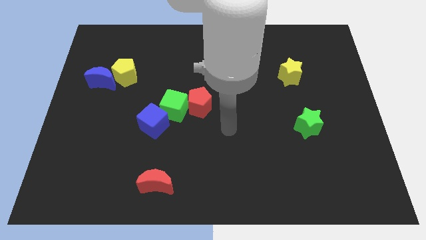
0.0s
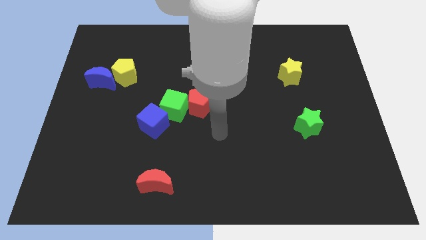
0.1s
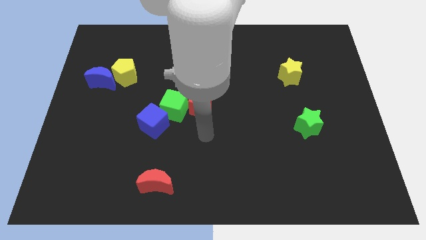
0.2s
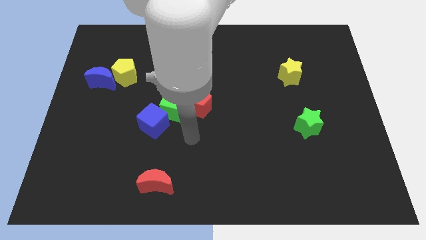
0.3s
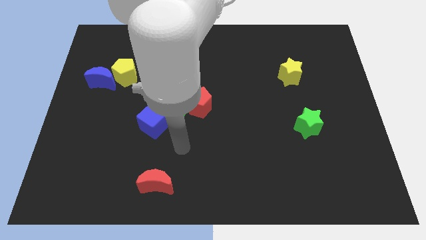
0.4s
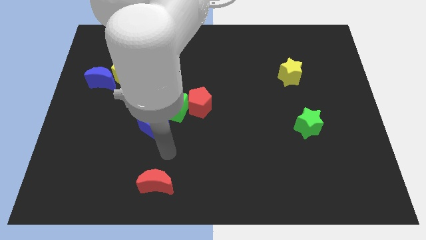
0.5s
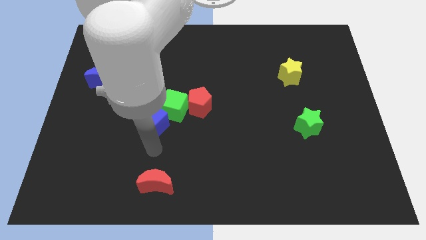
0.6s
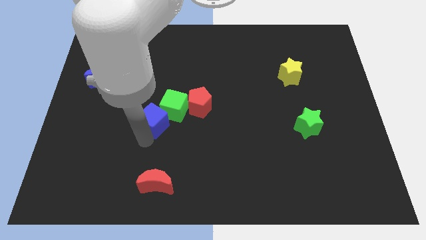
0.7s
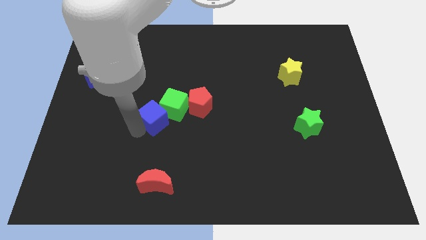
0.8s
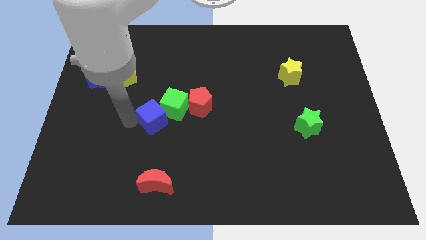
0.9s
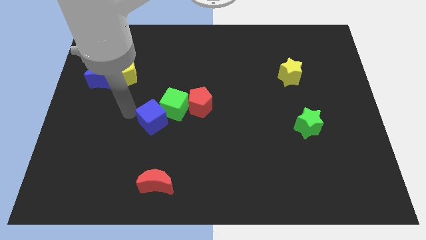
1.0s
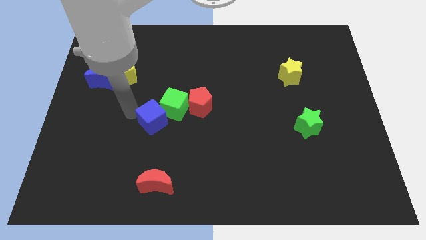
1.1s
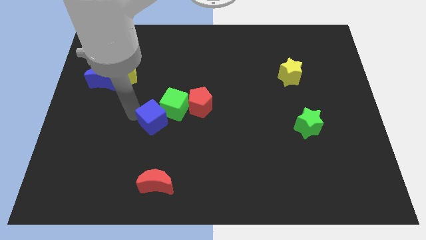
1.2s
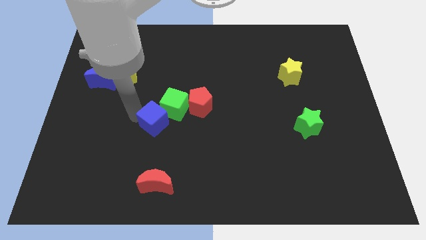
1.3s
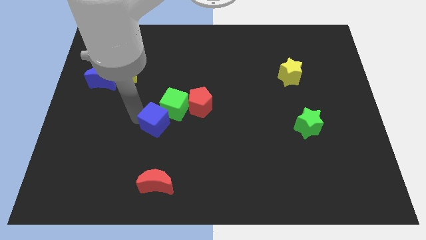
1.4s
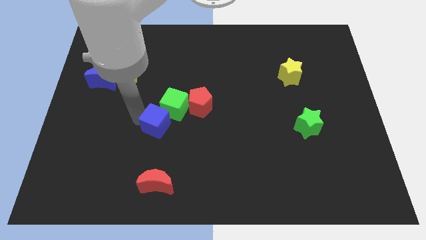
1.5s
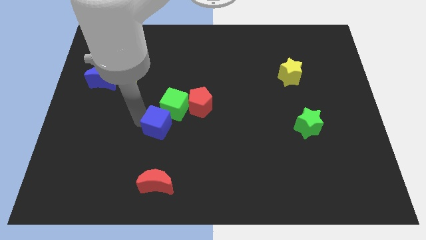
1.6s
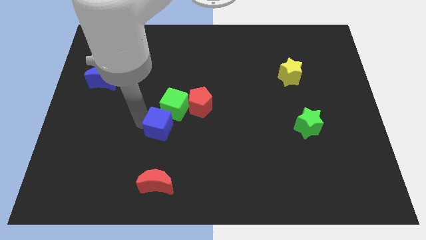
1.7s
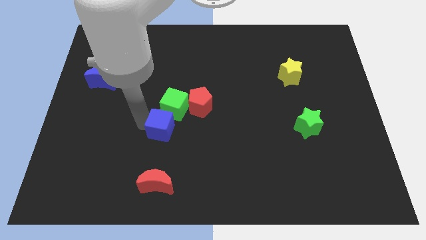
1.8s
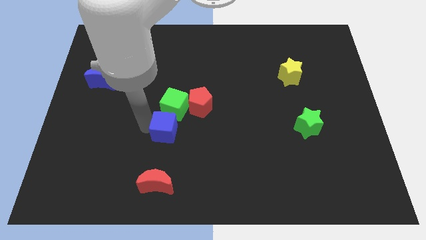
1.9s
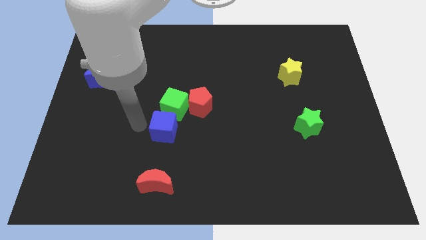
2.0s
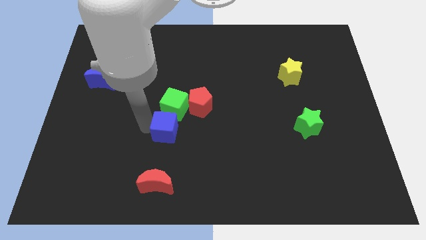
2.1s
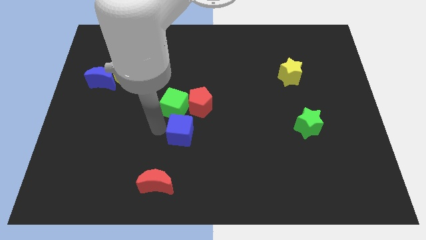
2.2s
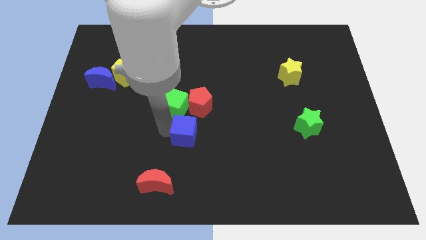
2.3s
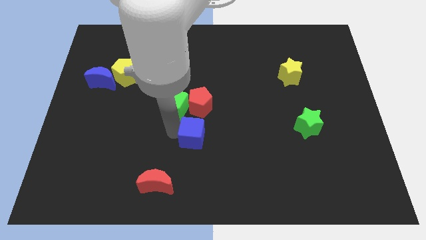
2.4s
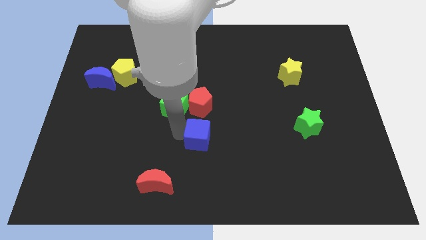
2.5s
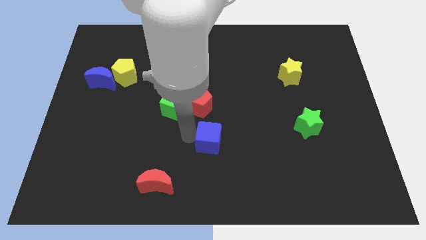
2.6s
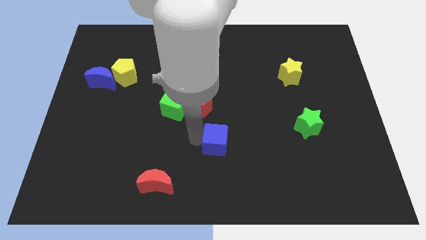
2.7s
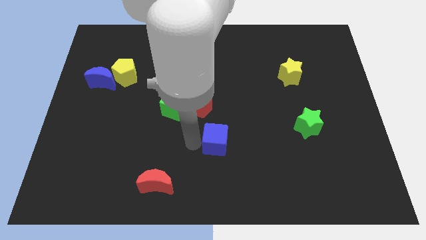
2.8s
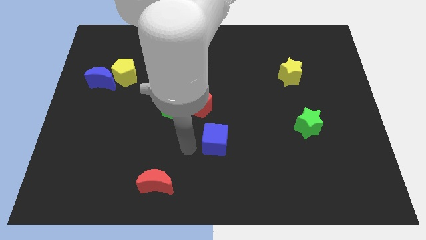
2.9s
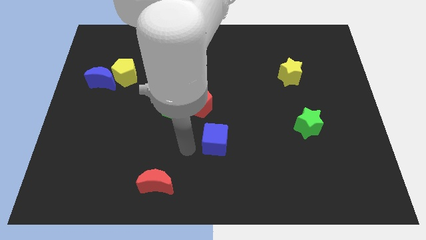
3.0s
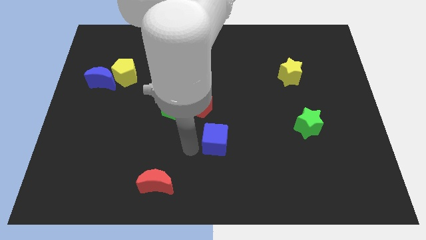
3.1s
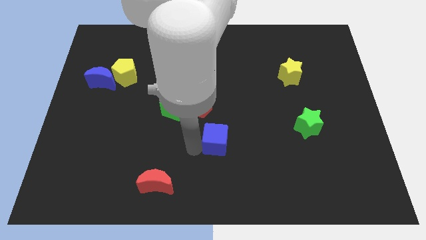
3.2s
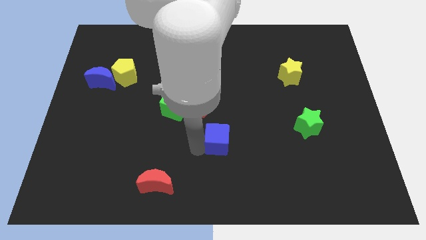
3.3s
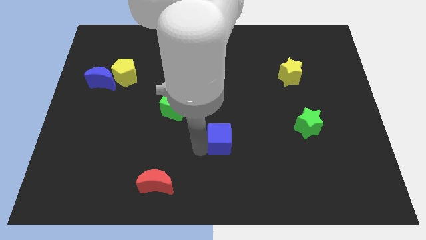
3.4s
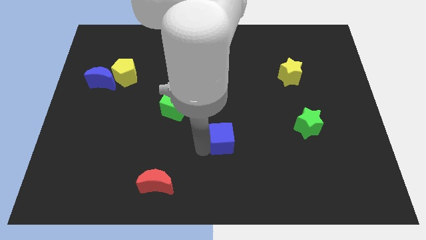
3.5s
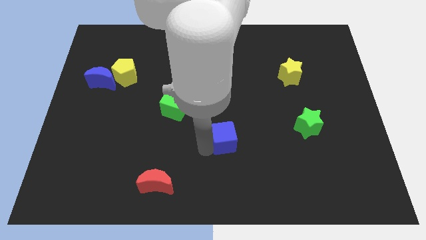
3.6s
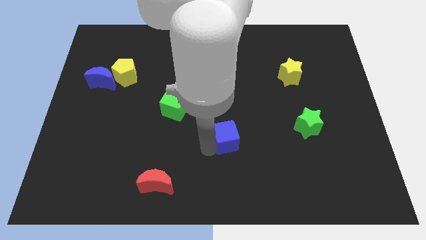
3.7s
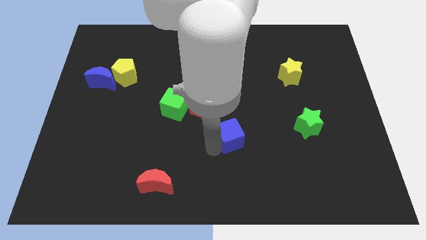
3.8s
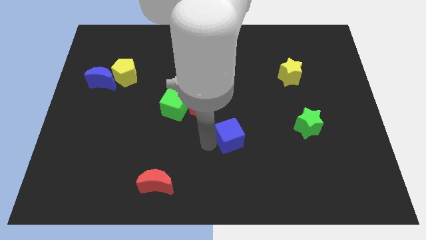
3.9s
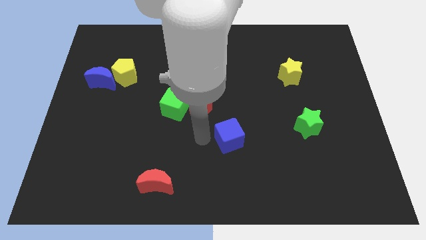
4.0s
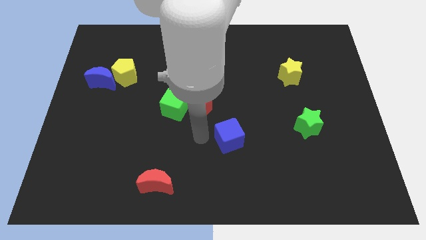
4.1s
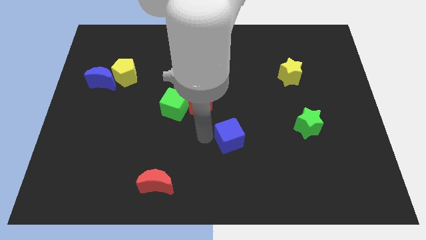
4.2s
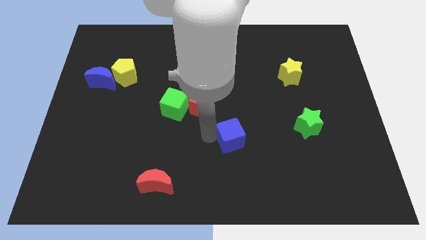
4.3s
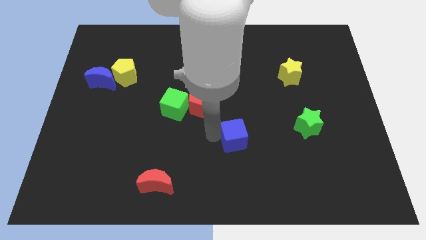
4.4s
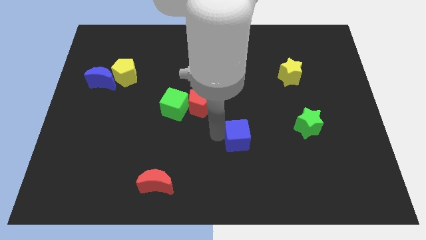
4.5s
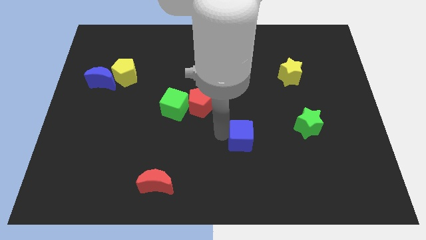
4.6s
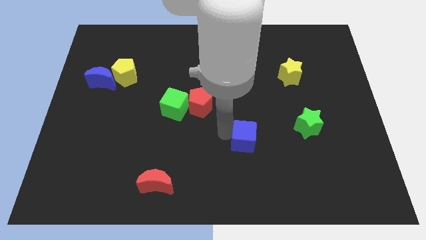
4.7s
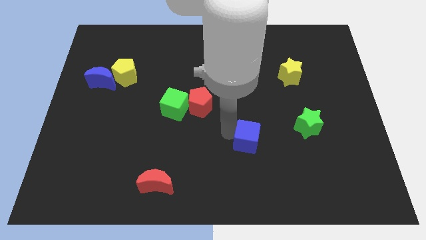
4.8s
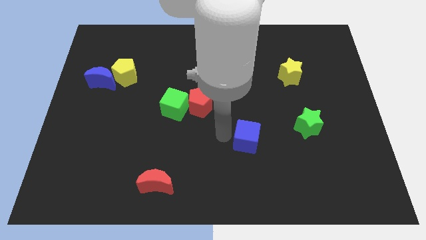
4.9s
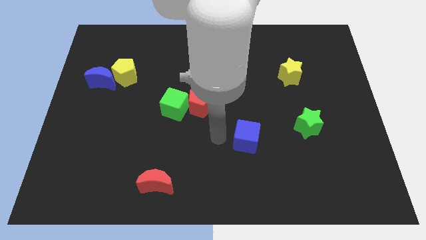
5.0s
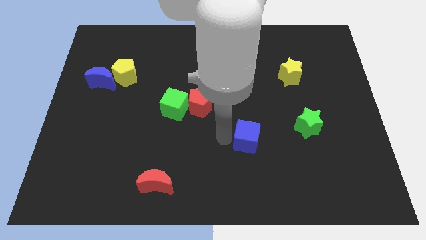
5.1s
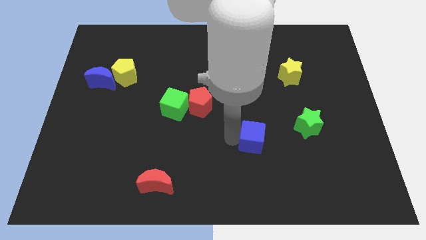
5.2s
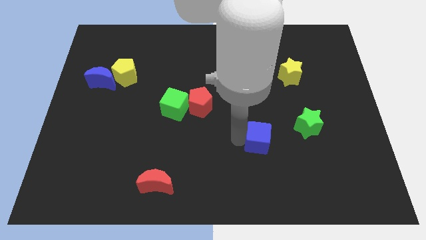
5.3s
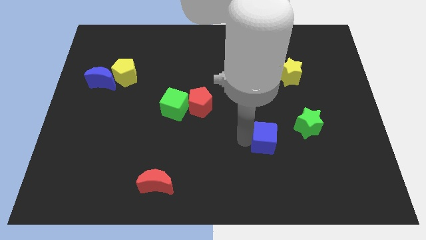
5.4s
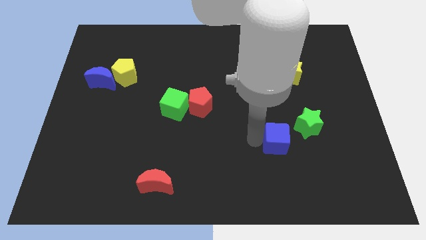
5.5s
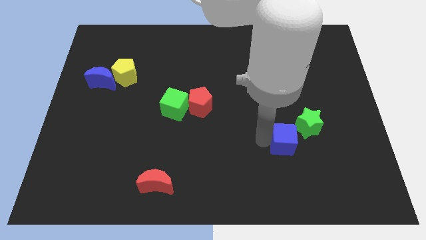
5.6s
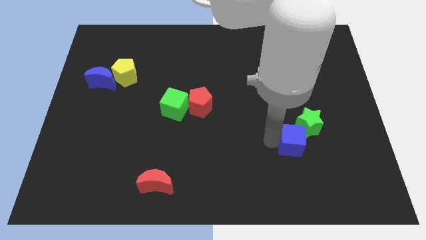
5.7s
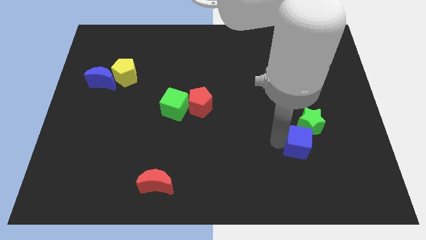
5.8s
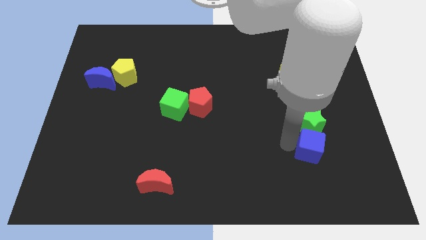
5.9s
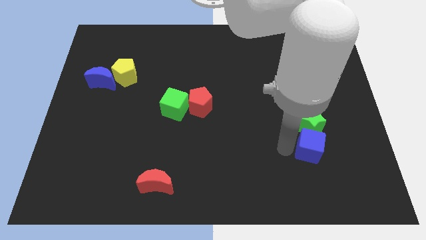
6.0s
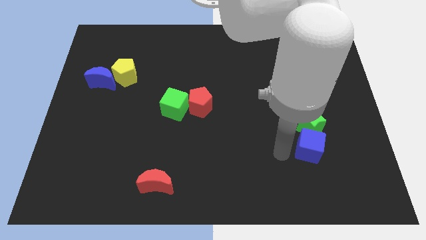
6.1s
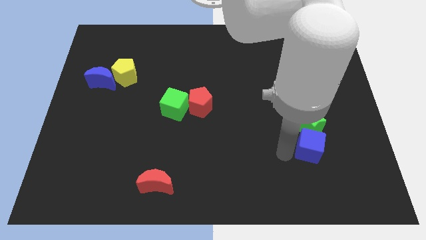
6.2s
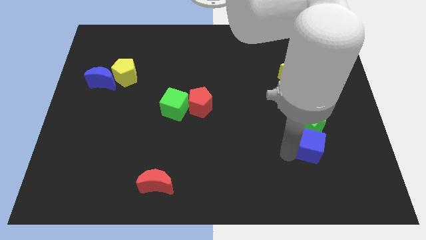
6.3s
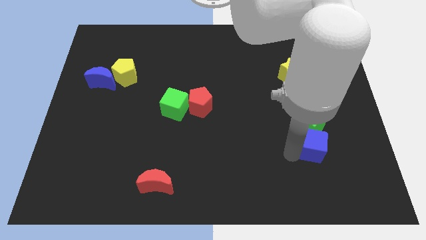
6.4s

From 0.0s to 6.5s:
put the blue cube diagonally down and to the right of the green star

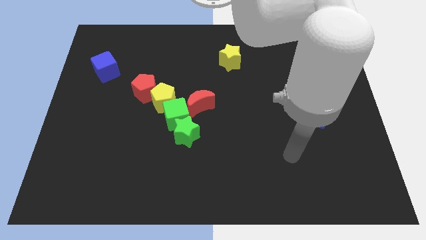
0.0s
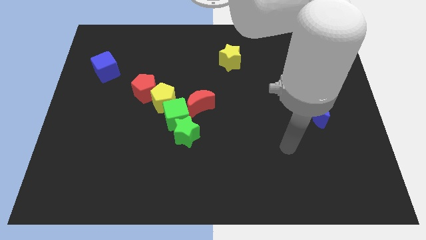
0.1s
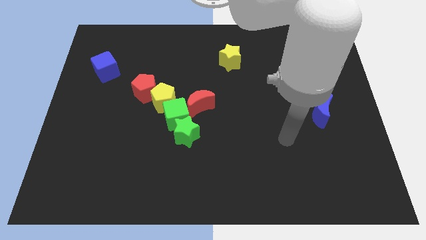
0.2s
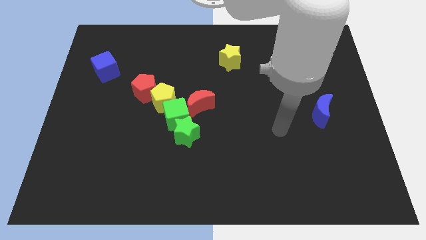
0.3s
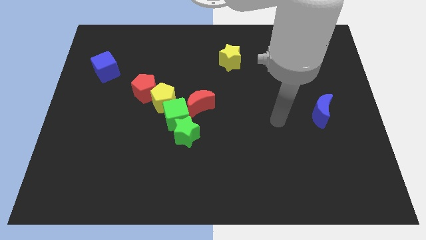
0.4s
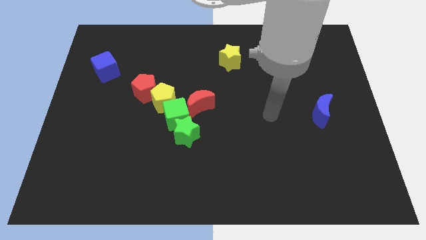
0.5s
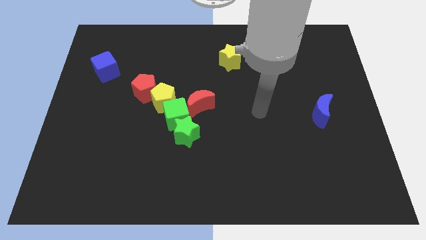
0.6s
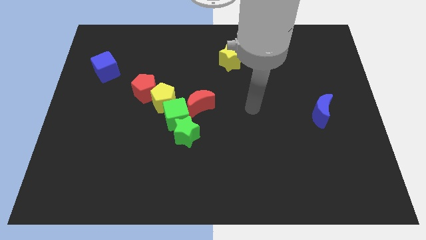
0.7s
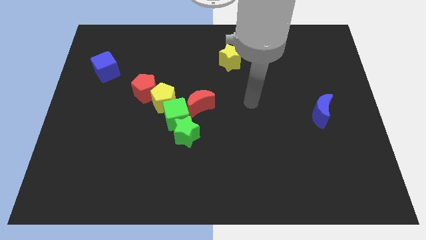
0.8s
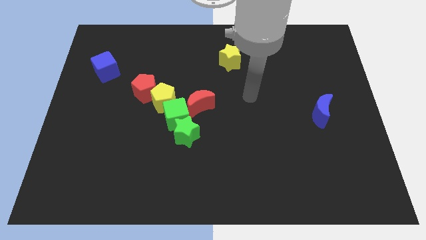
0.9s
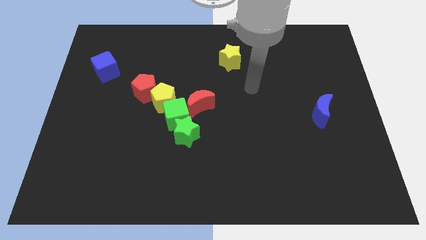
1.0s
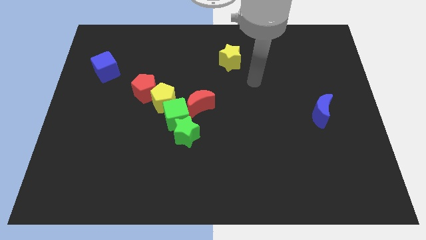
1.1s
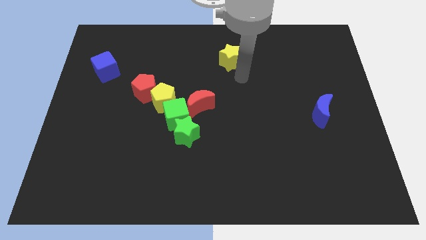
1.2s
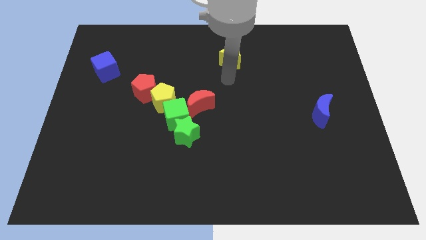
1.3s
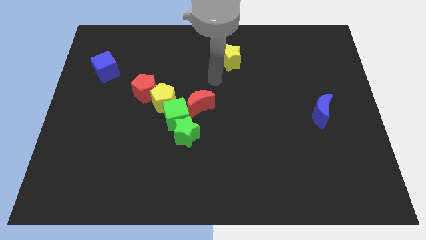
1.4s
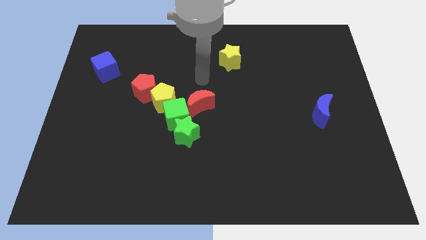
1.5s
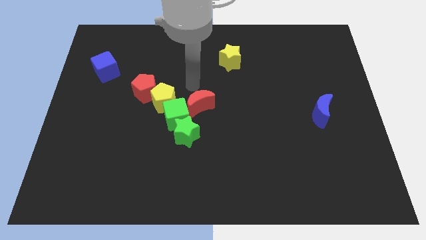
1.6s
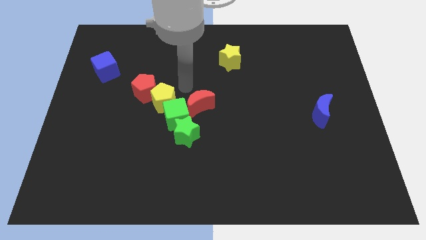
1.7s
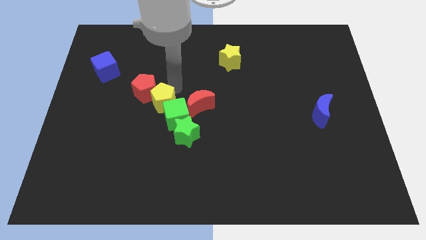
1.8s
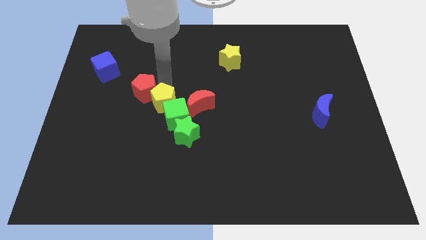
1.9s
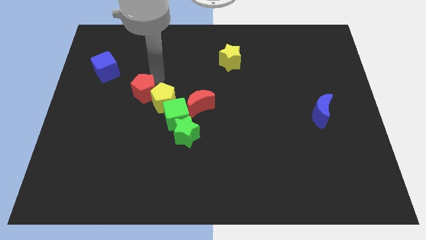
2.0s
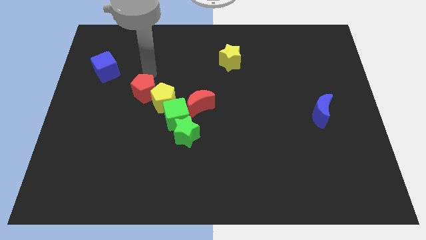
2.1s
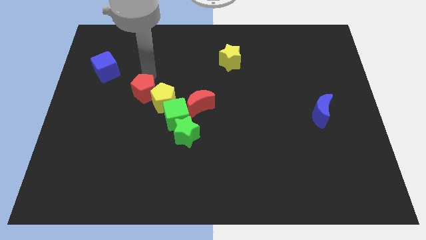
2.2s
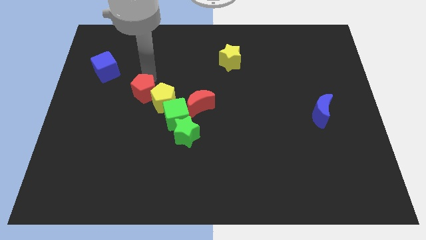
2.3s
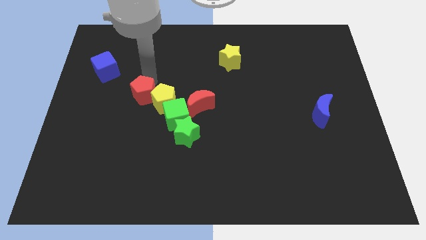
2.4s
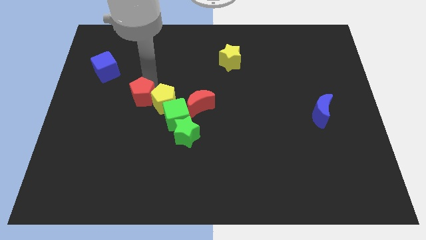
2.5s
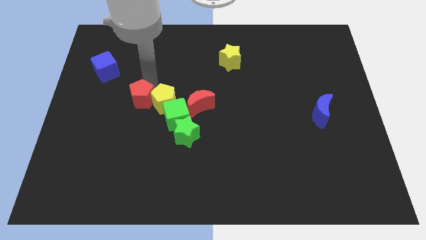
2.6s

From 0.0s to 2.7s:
slide the red pentagon to the bottom left side of the yellow pentagon
